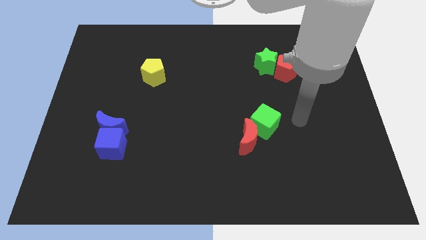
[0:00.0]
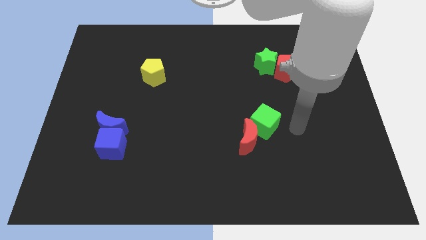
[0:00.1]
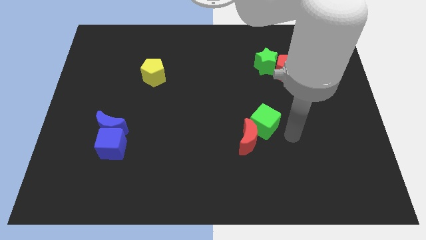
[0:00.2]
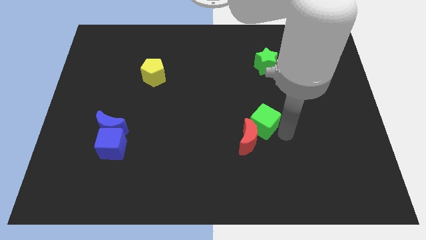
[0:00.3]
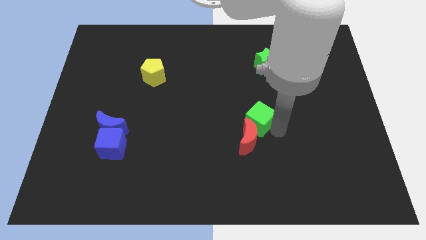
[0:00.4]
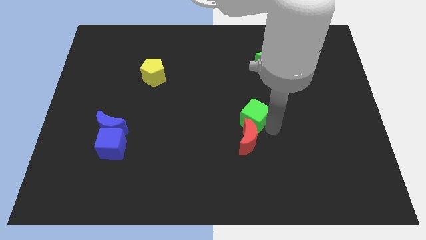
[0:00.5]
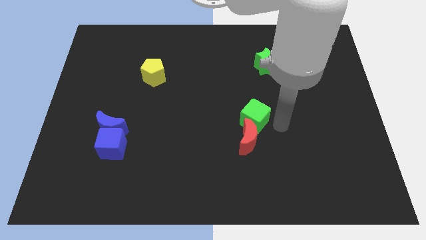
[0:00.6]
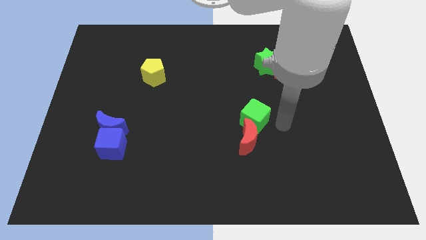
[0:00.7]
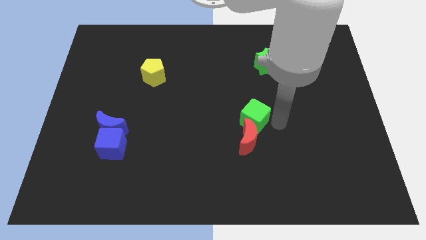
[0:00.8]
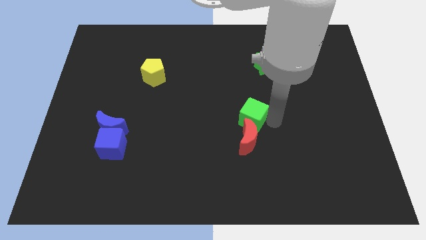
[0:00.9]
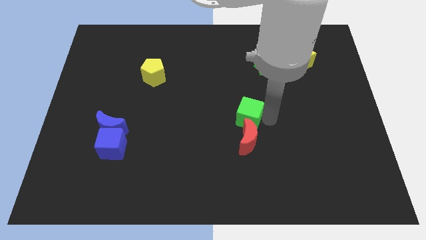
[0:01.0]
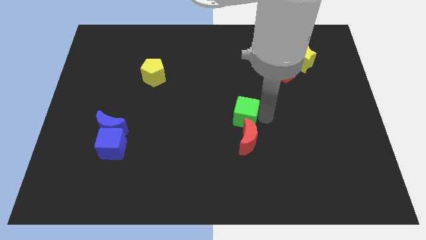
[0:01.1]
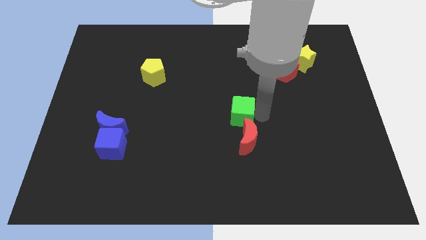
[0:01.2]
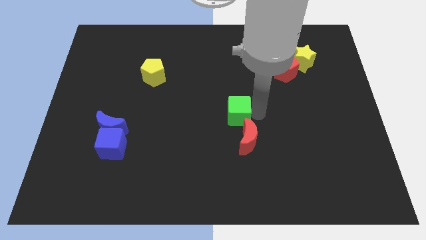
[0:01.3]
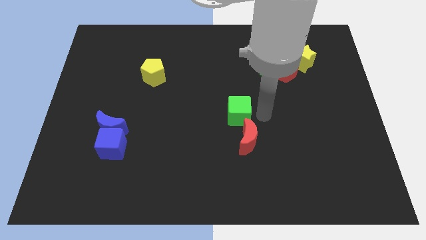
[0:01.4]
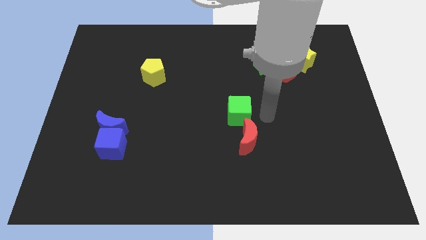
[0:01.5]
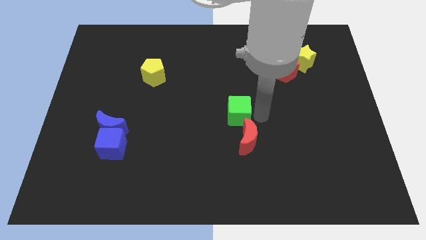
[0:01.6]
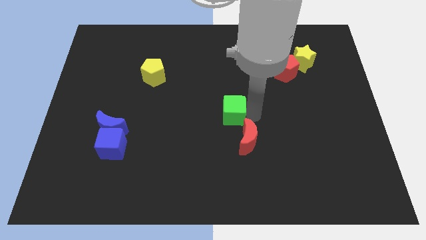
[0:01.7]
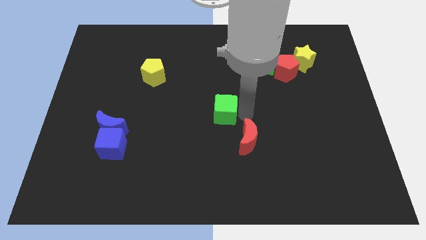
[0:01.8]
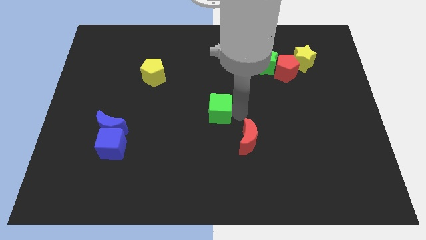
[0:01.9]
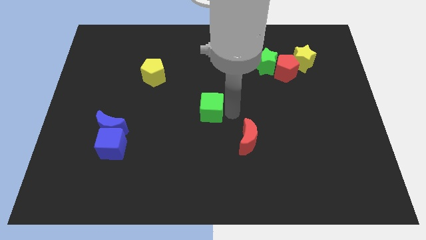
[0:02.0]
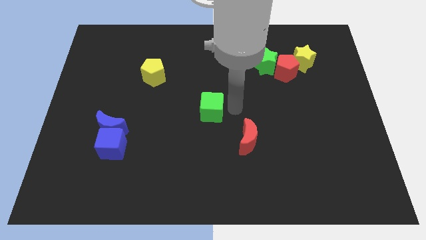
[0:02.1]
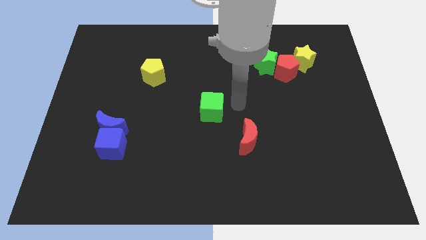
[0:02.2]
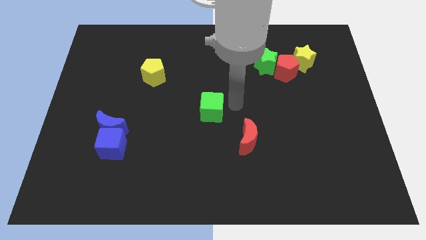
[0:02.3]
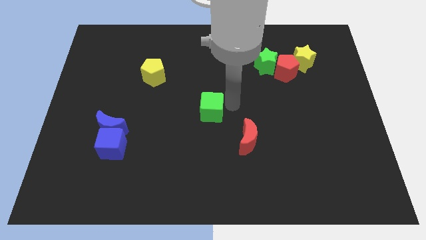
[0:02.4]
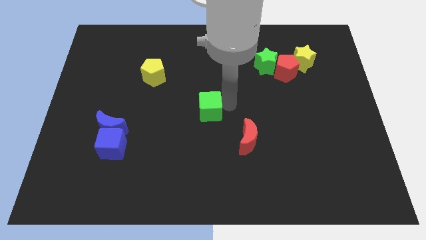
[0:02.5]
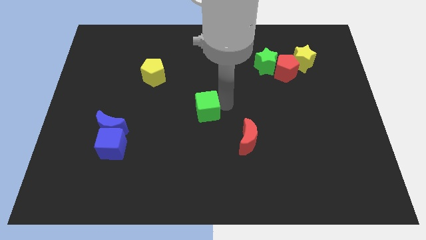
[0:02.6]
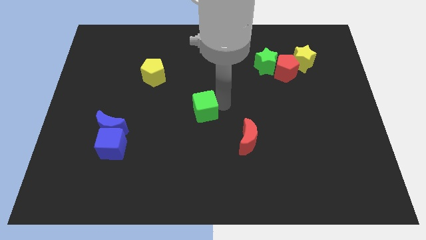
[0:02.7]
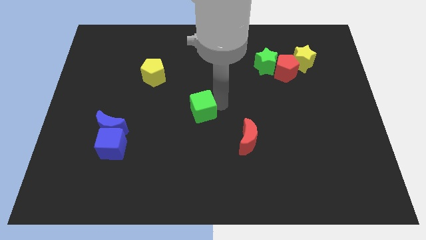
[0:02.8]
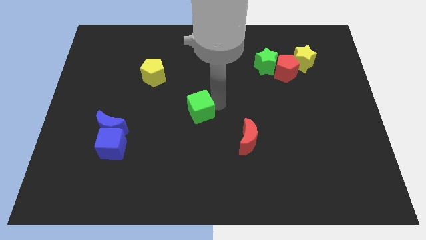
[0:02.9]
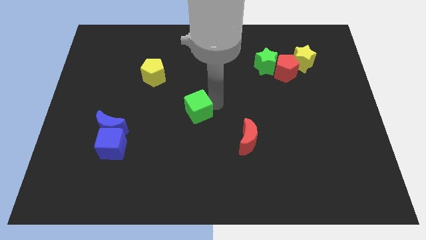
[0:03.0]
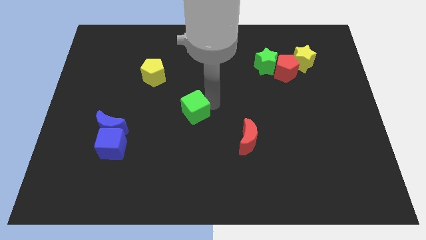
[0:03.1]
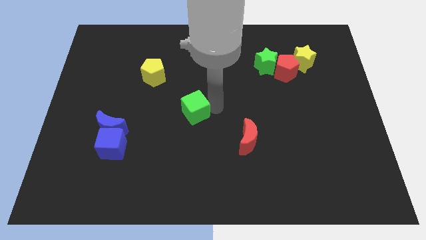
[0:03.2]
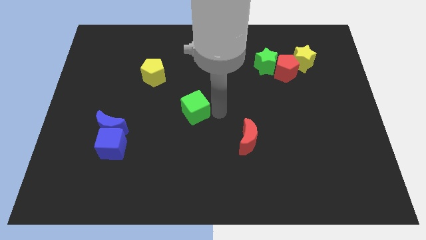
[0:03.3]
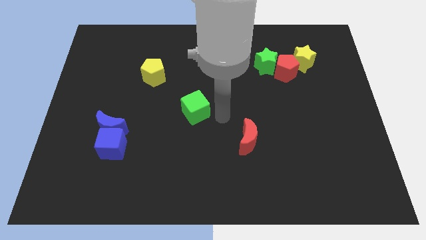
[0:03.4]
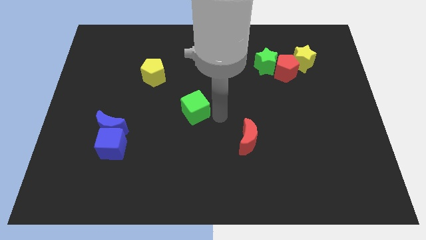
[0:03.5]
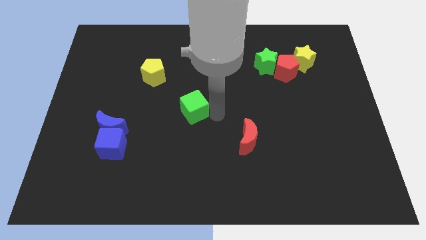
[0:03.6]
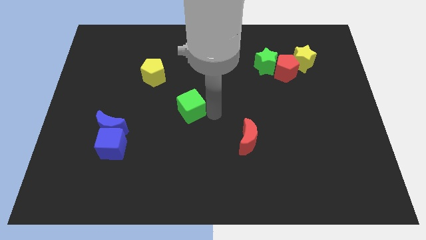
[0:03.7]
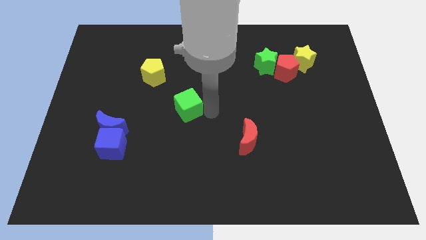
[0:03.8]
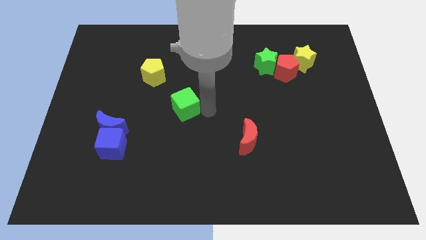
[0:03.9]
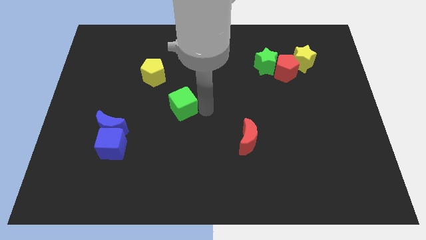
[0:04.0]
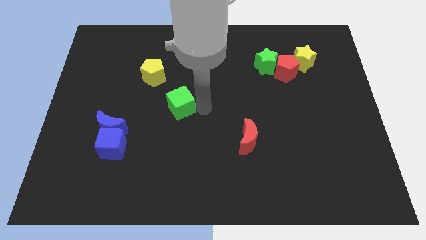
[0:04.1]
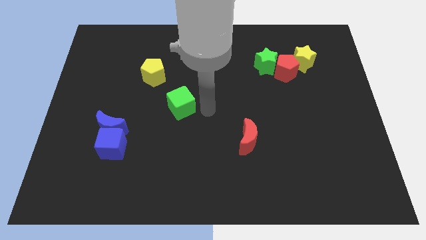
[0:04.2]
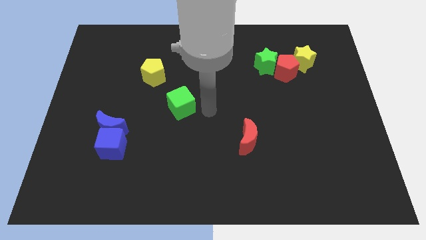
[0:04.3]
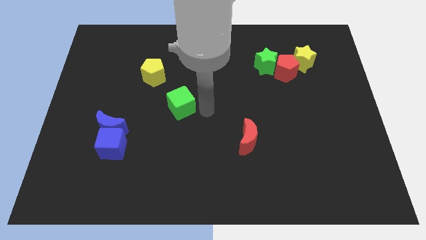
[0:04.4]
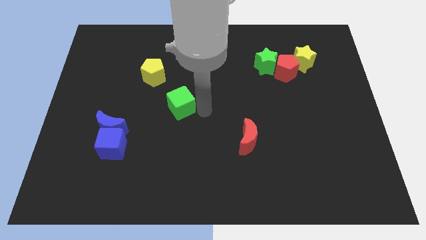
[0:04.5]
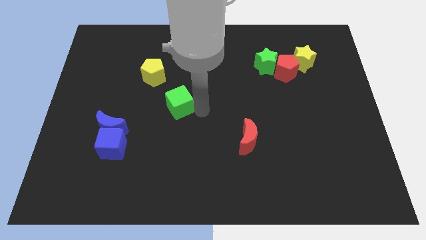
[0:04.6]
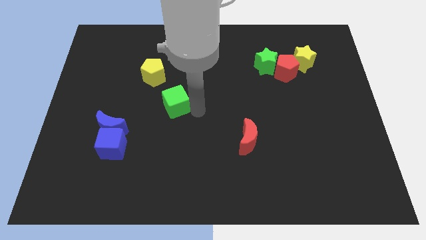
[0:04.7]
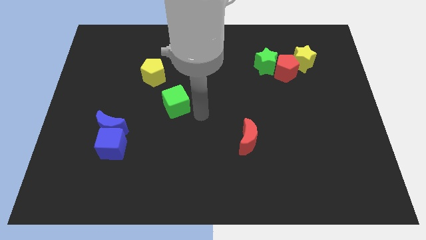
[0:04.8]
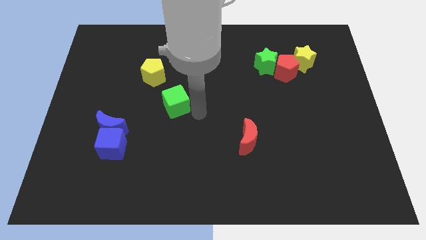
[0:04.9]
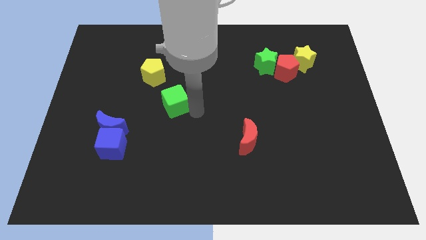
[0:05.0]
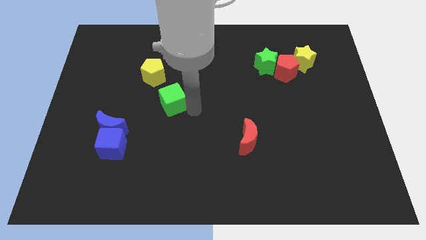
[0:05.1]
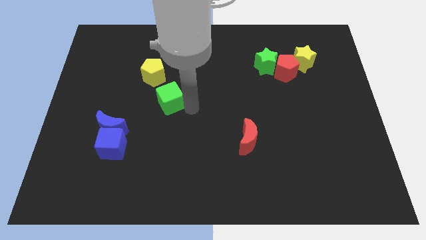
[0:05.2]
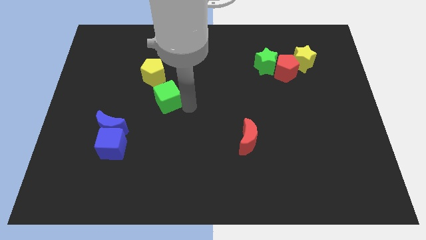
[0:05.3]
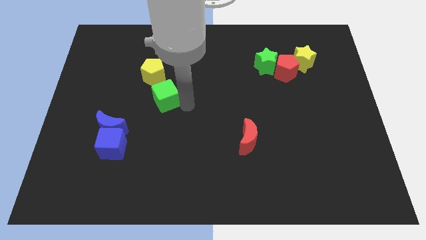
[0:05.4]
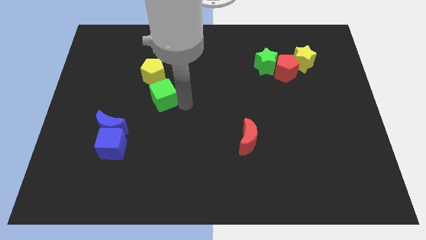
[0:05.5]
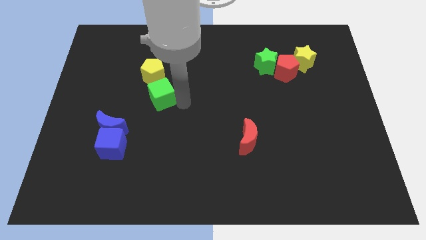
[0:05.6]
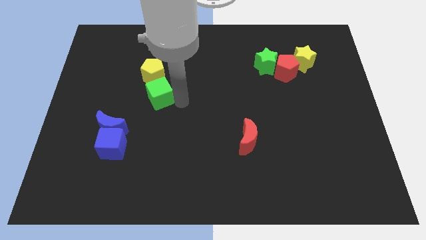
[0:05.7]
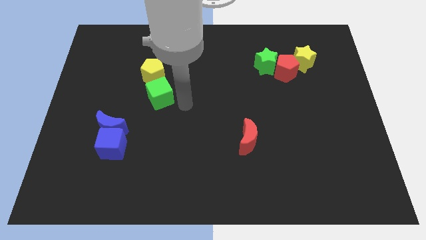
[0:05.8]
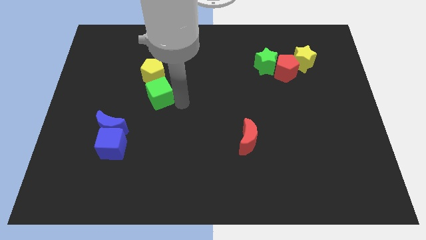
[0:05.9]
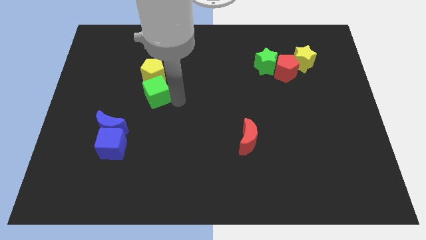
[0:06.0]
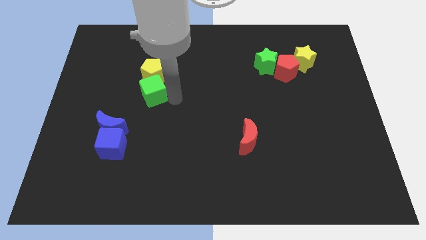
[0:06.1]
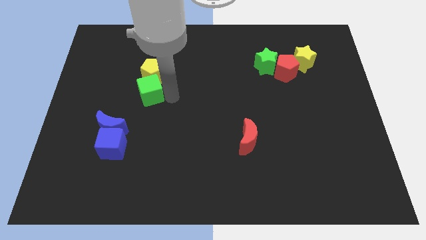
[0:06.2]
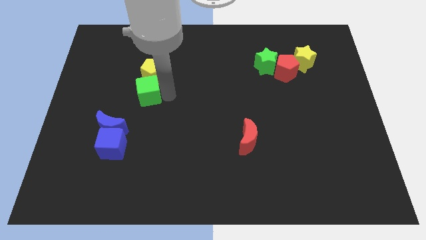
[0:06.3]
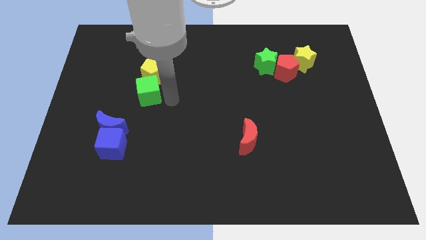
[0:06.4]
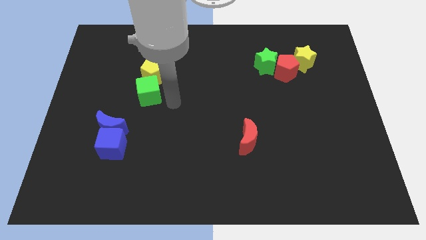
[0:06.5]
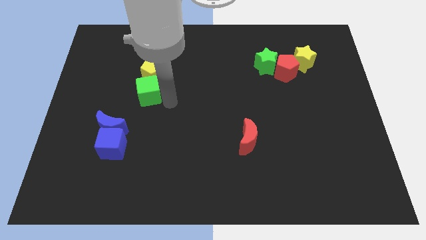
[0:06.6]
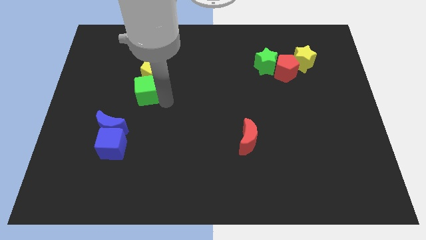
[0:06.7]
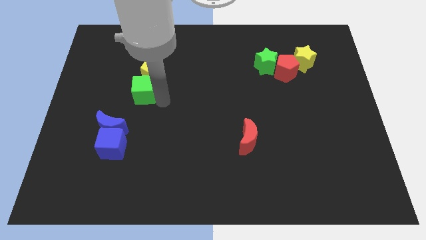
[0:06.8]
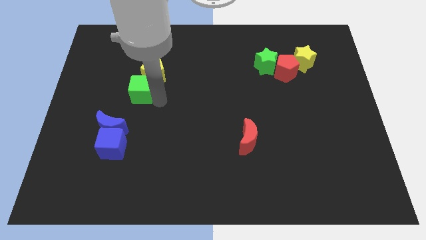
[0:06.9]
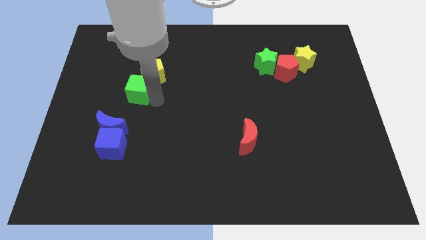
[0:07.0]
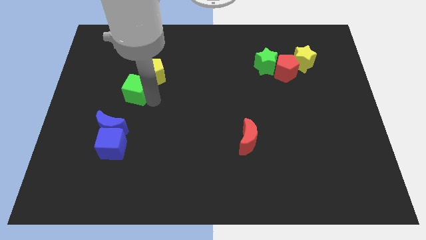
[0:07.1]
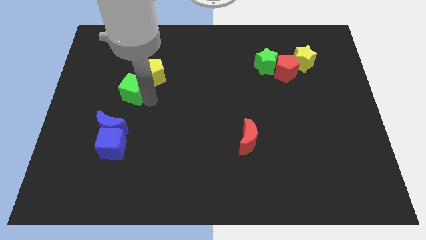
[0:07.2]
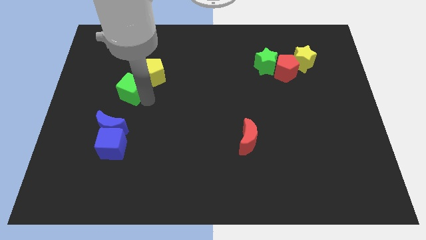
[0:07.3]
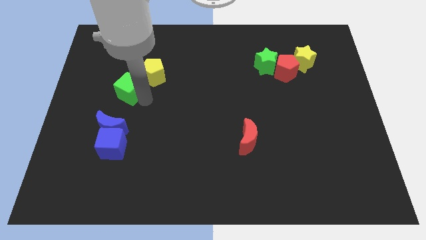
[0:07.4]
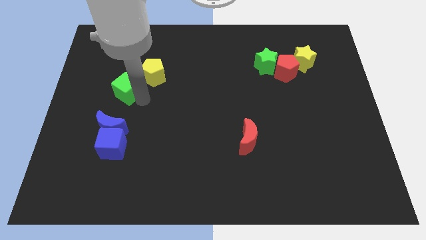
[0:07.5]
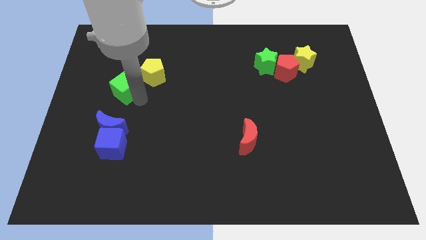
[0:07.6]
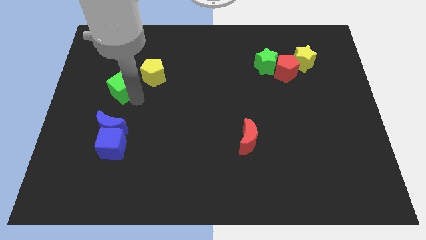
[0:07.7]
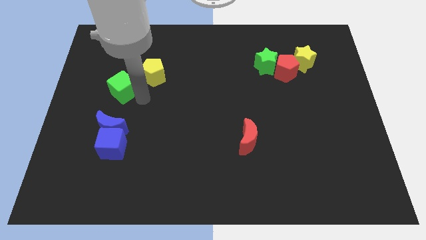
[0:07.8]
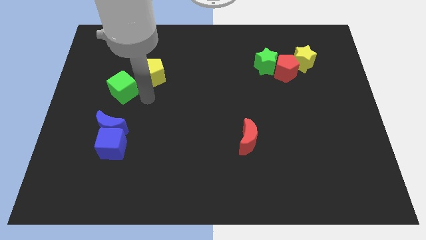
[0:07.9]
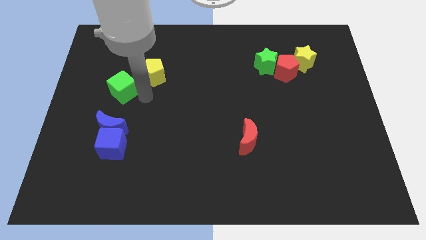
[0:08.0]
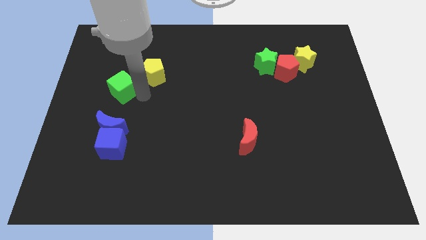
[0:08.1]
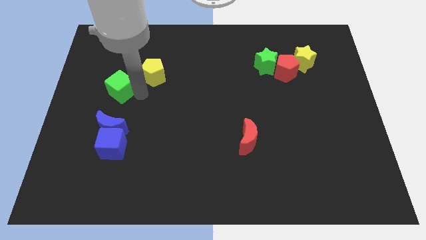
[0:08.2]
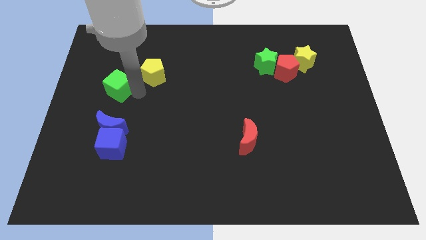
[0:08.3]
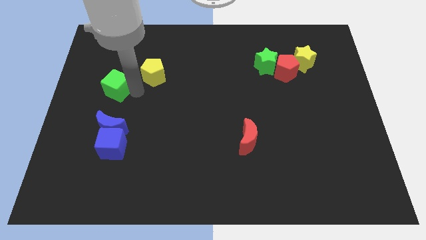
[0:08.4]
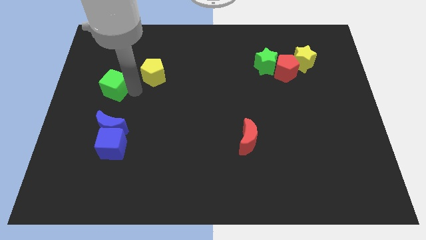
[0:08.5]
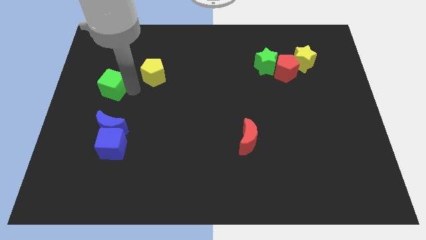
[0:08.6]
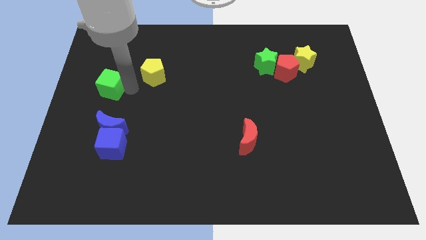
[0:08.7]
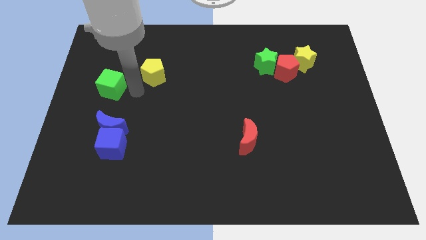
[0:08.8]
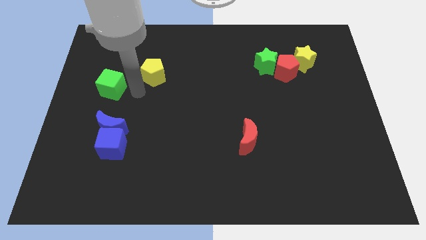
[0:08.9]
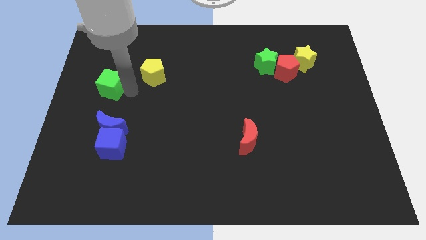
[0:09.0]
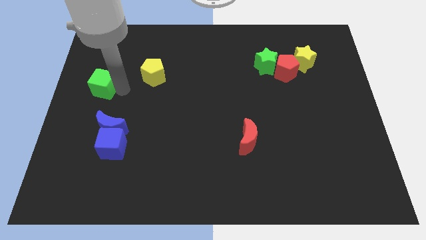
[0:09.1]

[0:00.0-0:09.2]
slide the green cube to the left side
